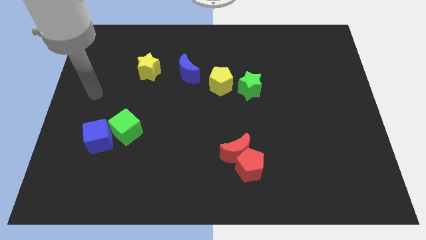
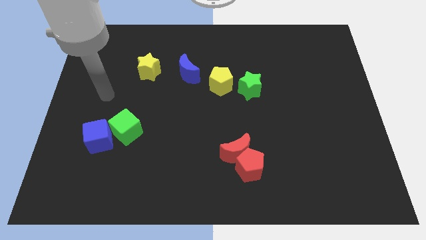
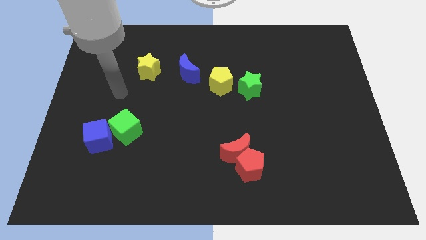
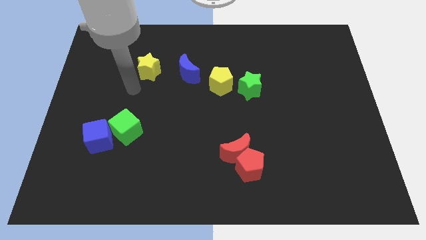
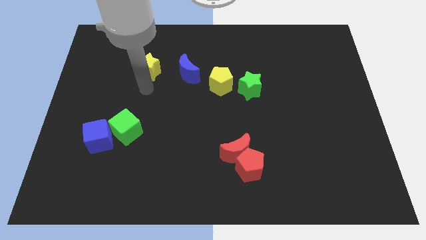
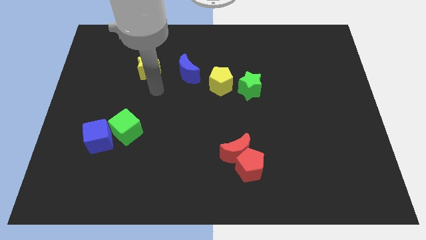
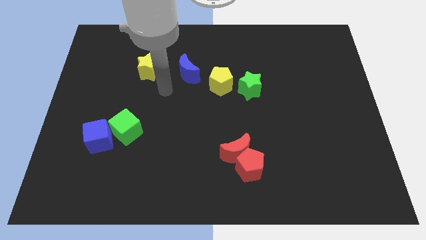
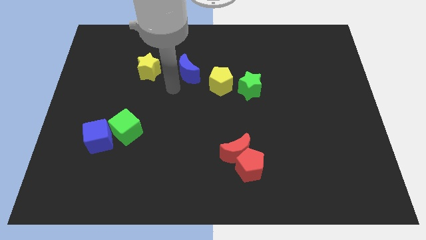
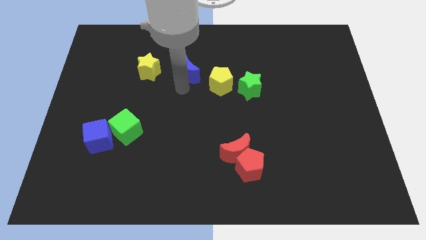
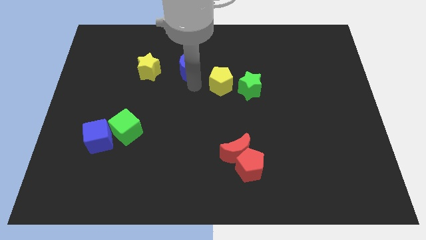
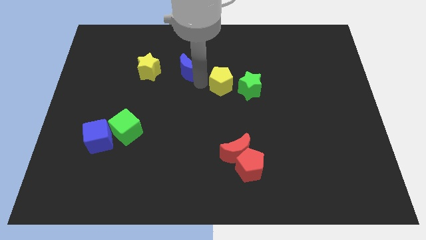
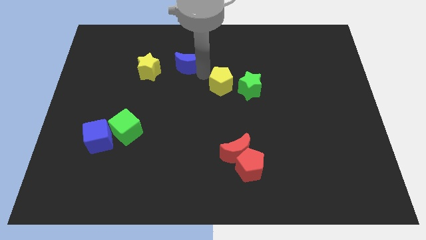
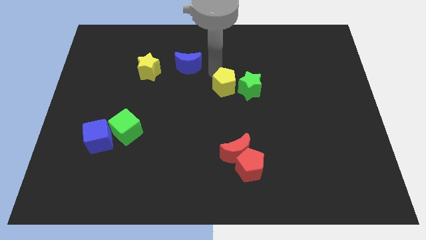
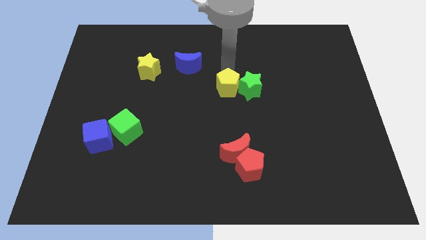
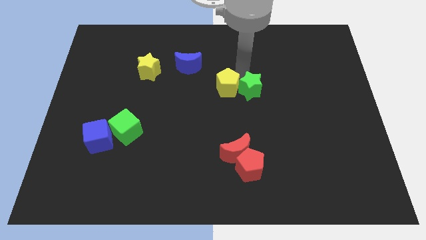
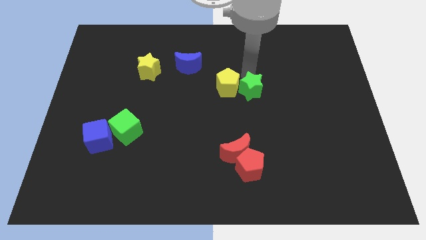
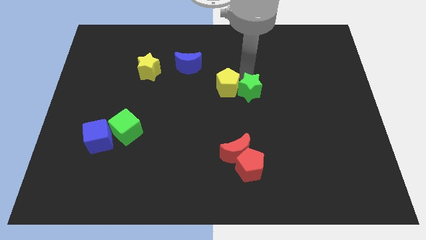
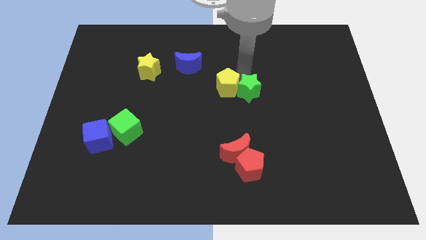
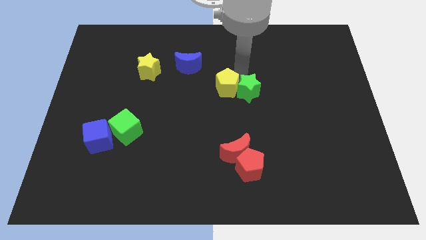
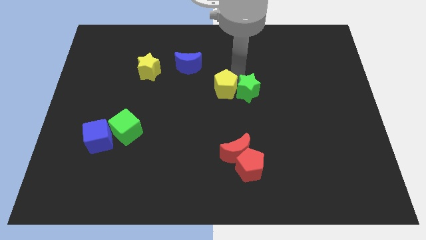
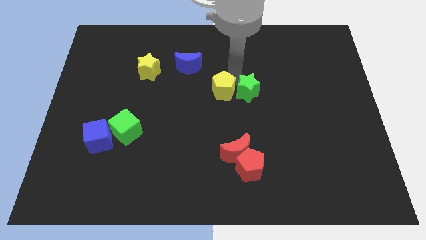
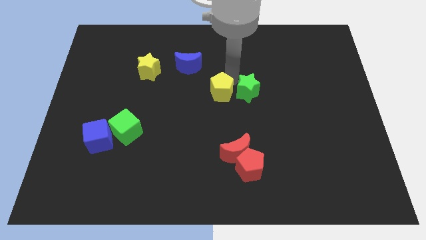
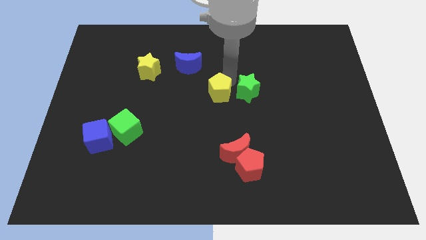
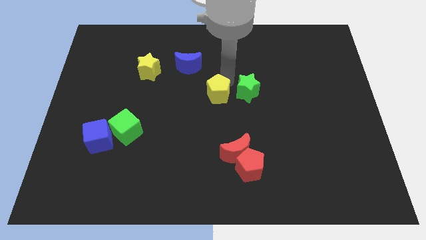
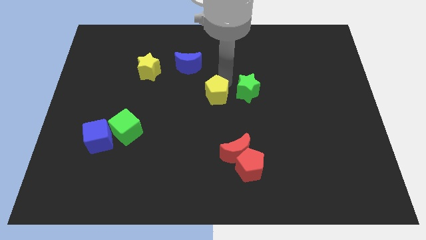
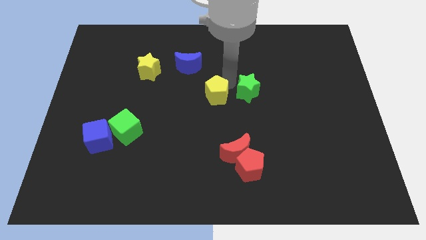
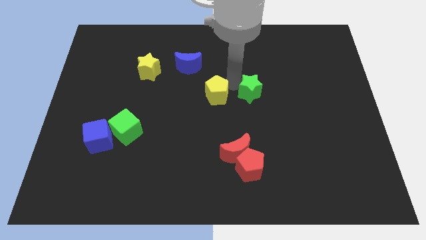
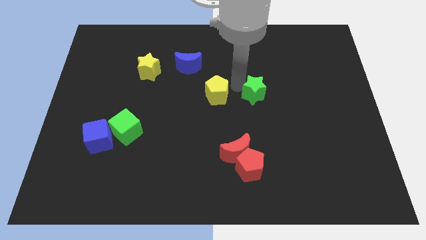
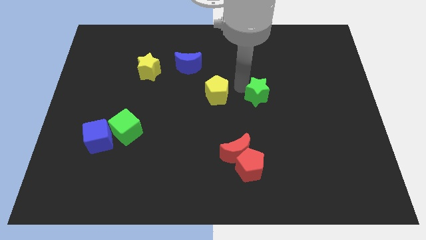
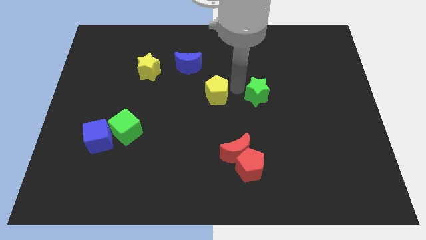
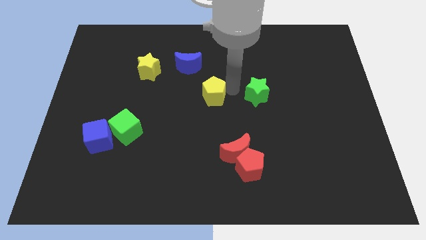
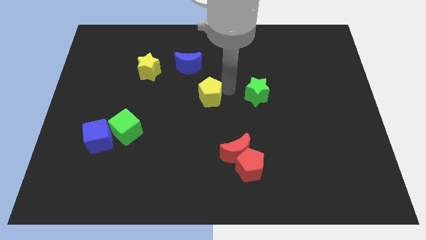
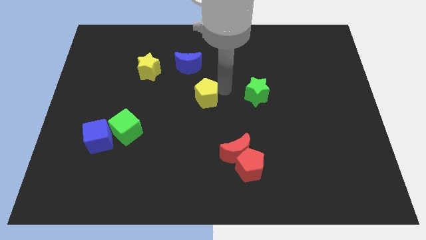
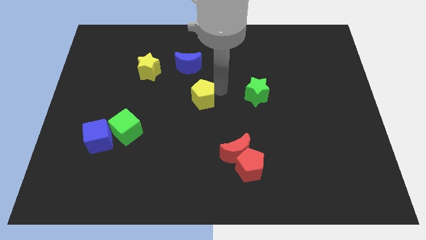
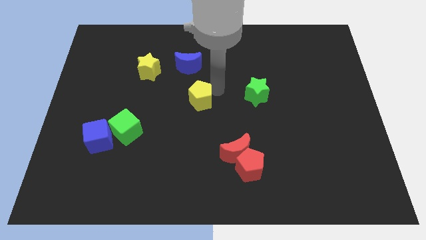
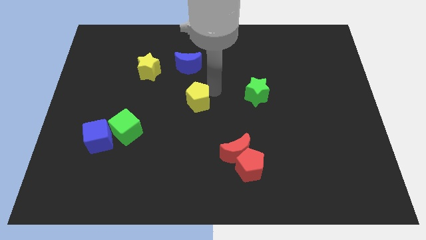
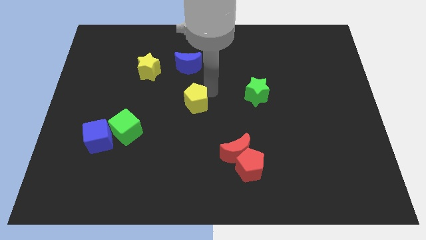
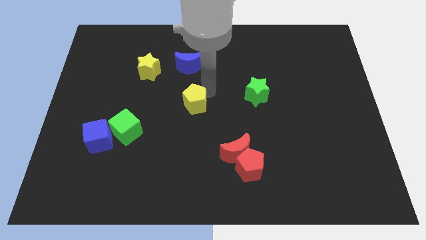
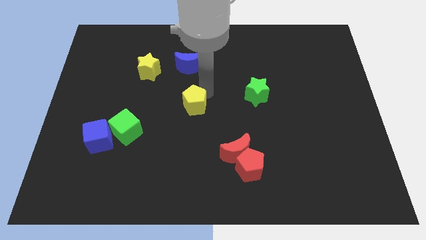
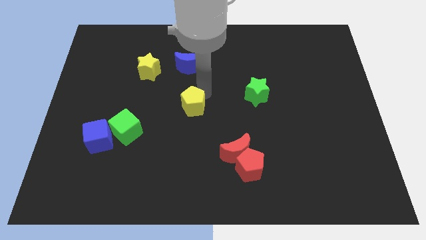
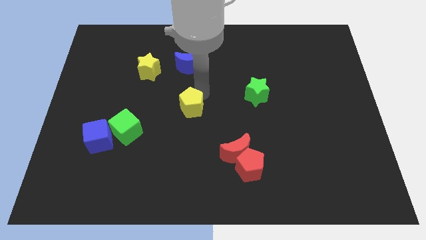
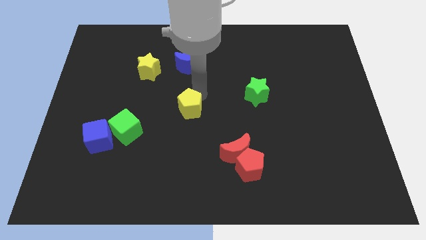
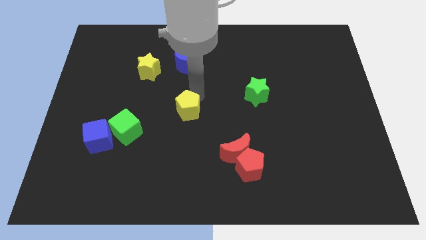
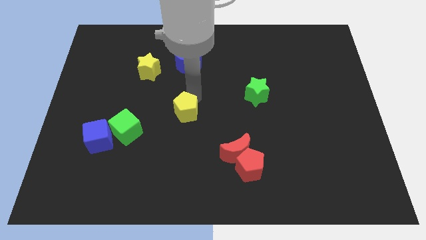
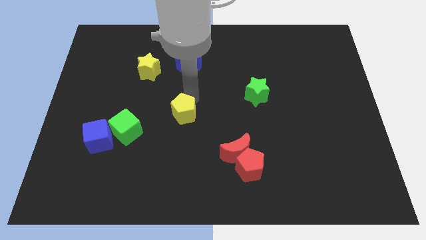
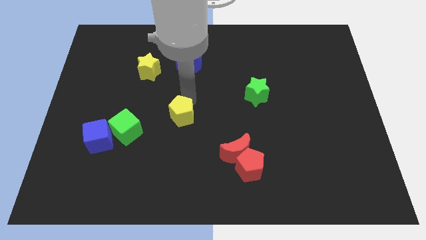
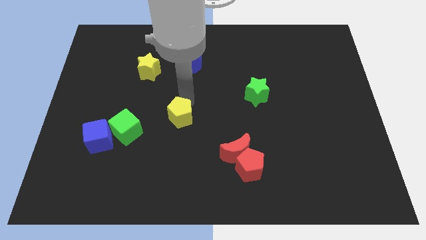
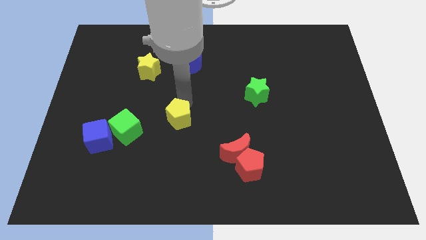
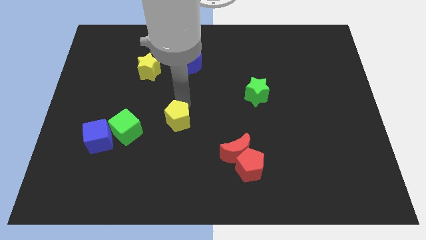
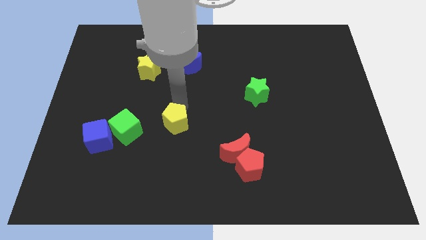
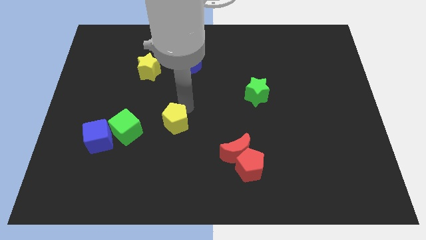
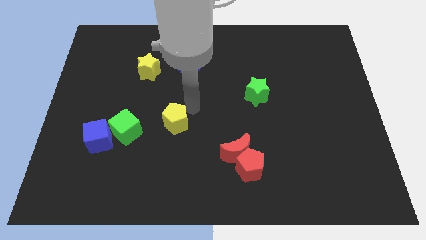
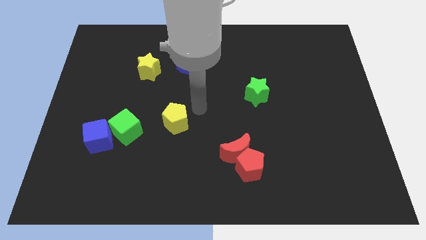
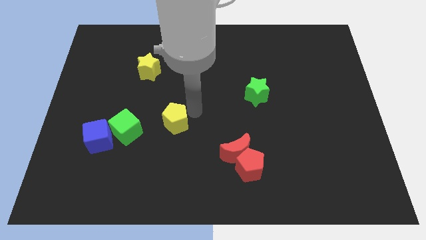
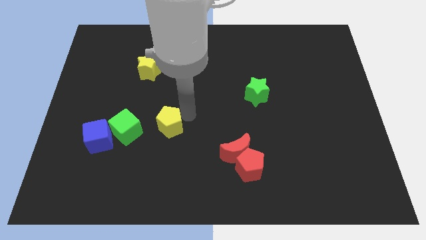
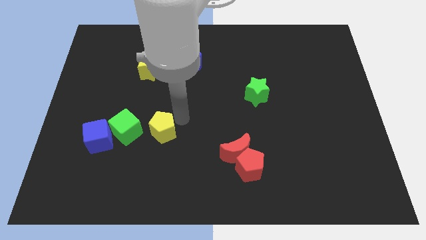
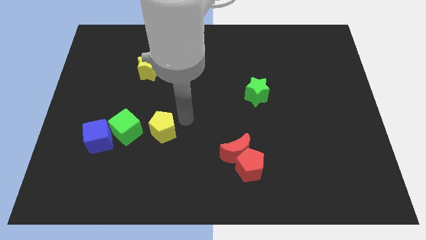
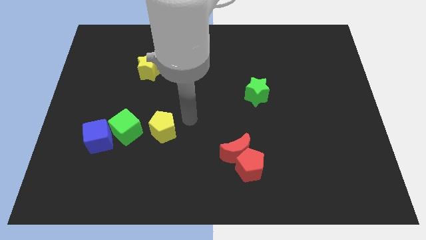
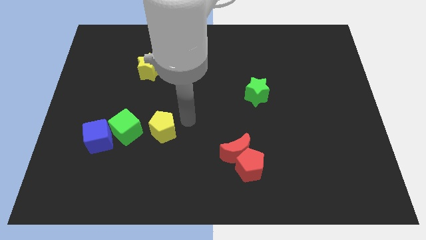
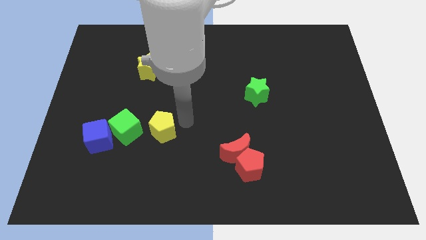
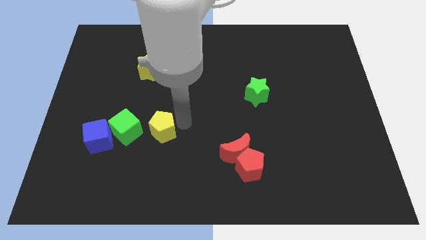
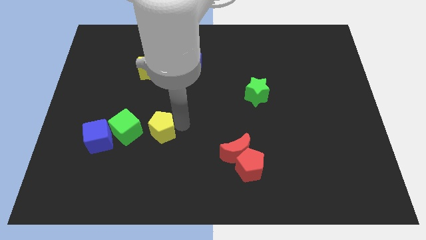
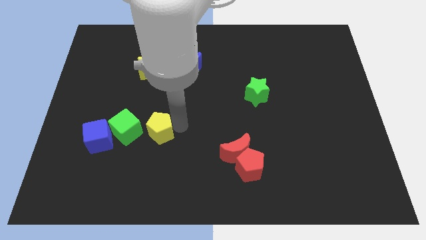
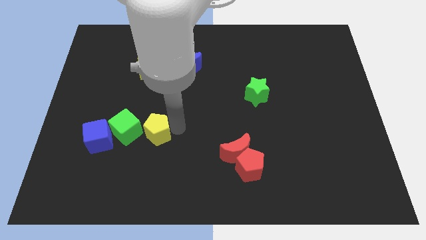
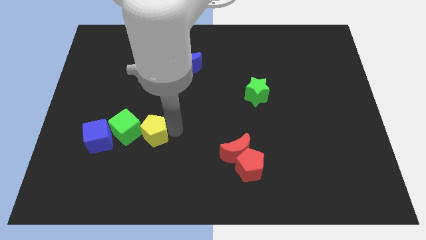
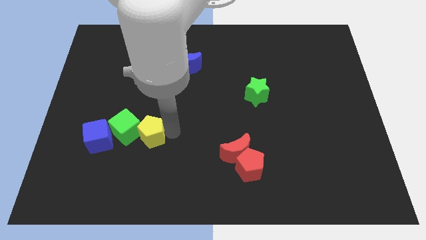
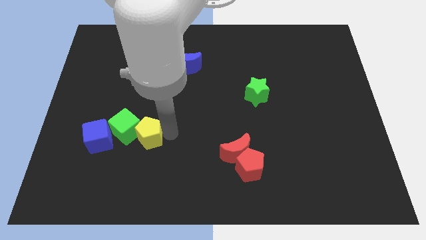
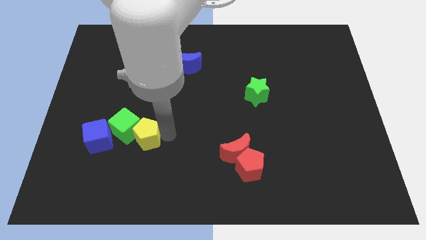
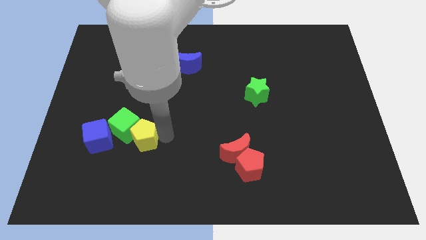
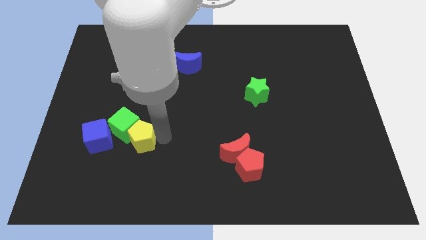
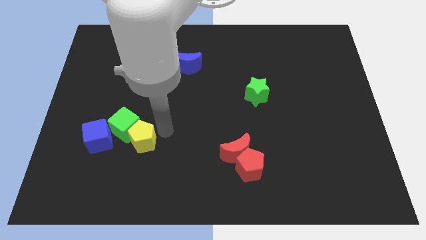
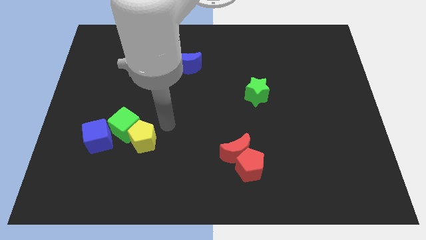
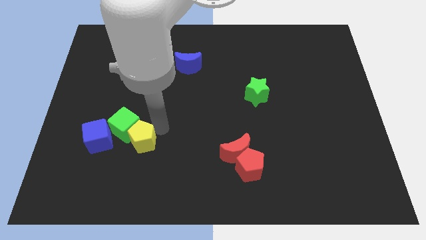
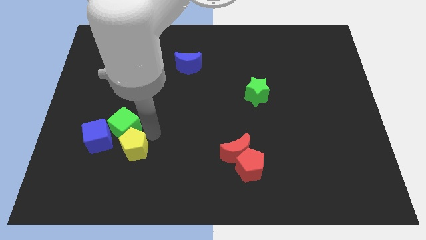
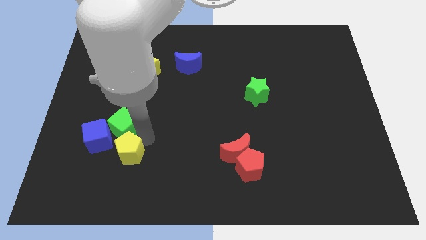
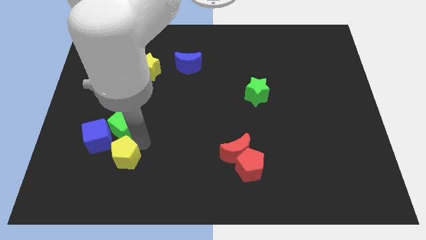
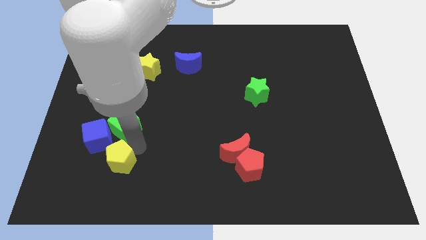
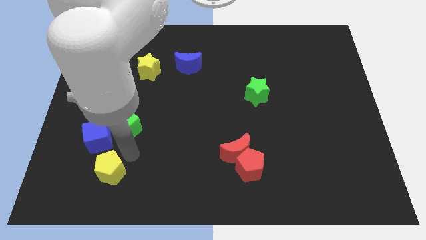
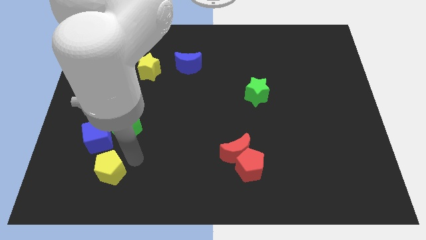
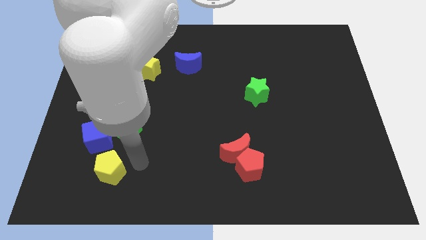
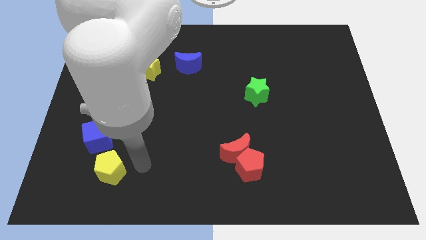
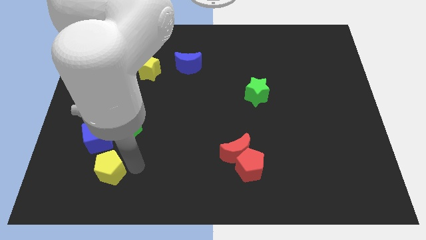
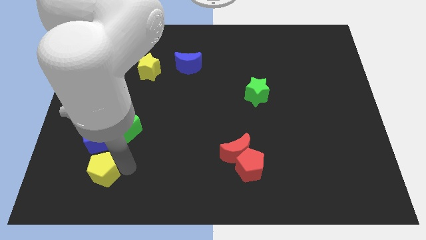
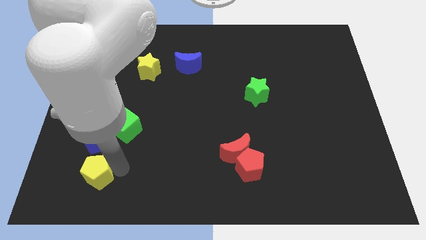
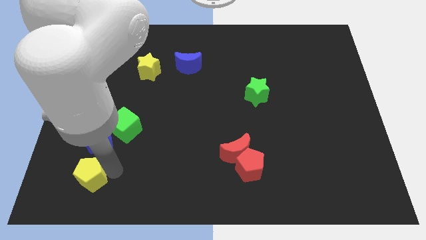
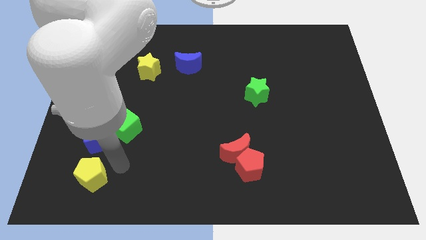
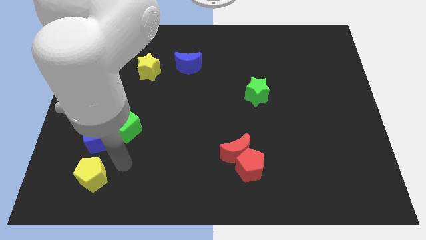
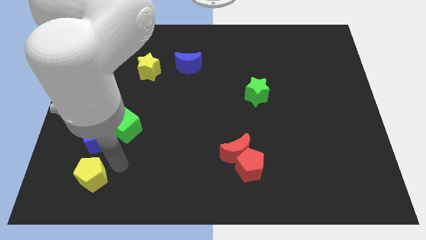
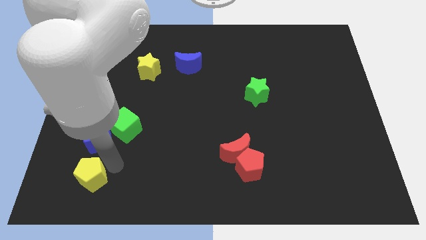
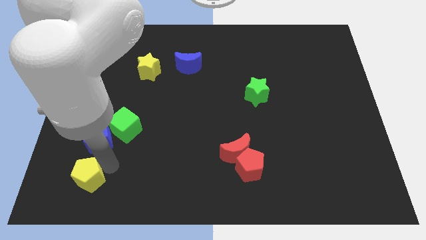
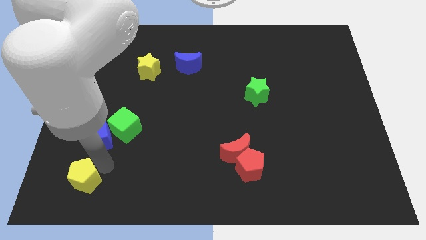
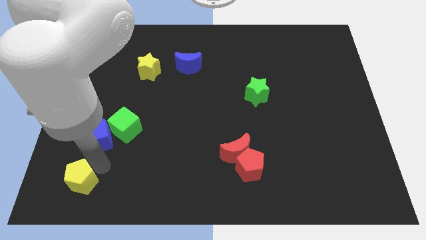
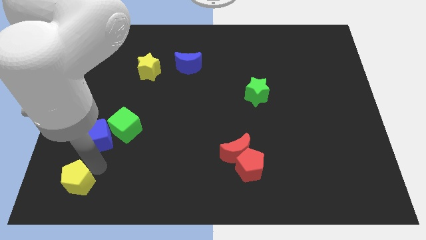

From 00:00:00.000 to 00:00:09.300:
put the yellow pentagon to the bottom left corner
